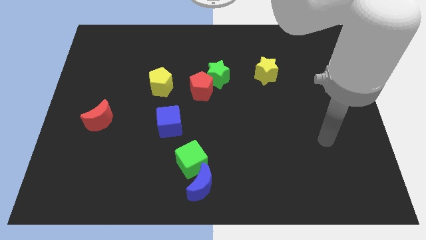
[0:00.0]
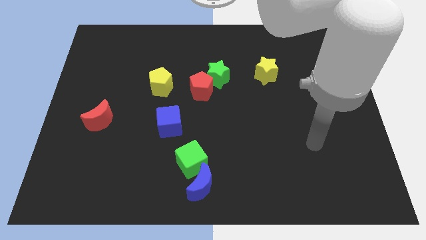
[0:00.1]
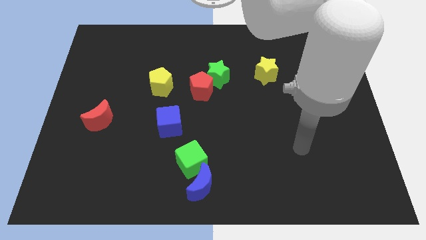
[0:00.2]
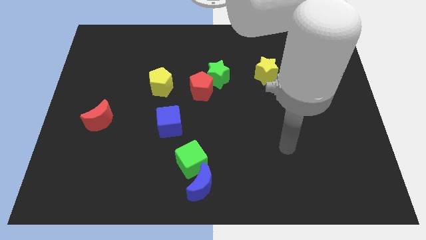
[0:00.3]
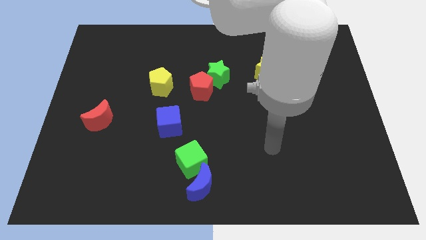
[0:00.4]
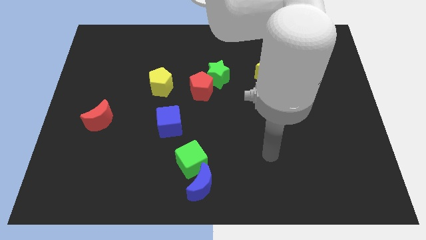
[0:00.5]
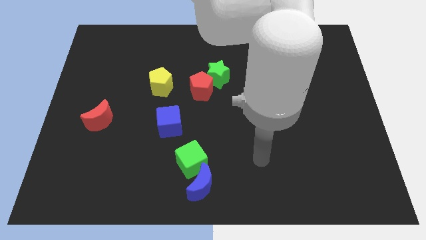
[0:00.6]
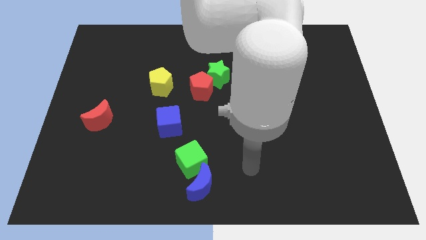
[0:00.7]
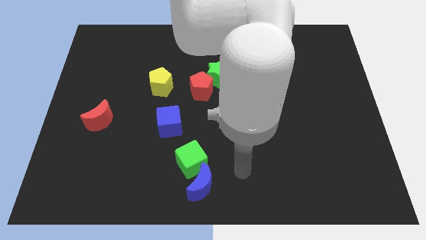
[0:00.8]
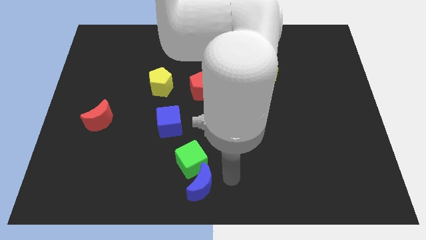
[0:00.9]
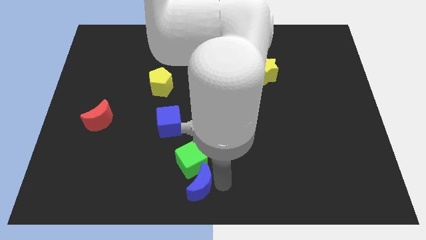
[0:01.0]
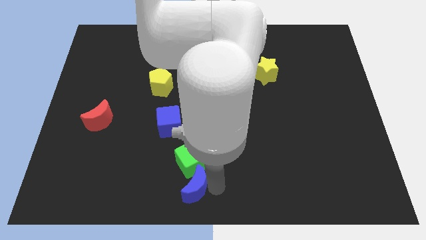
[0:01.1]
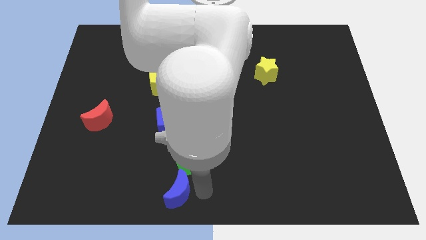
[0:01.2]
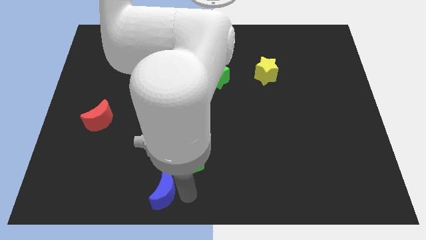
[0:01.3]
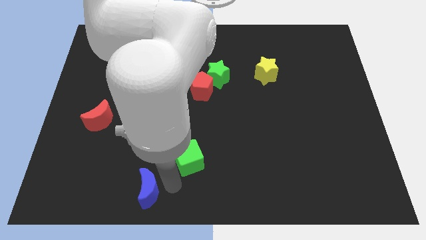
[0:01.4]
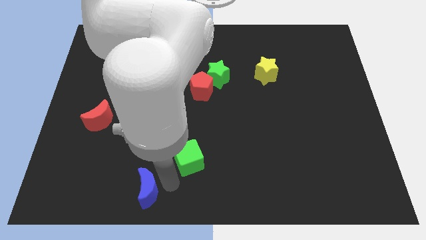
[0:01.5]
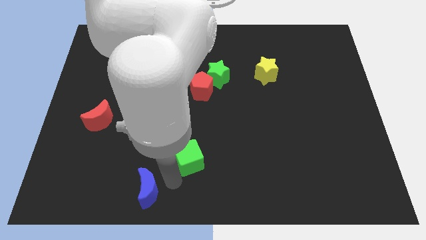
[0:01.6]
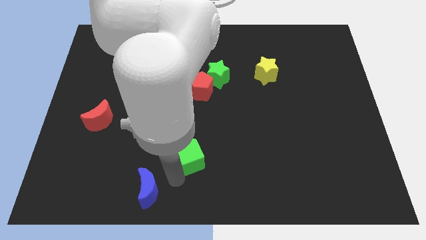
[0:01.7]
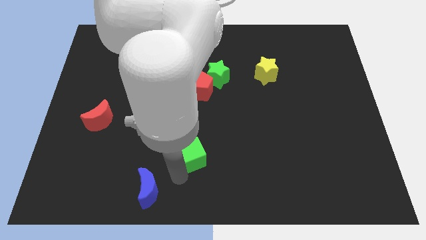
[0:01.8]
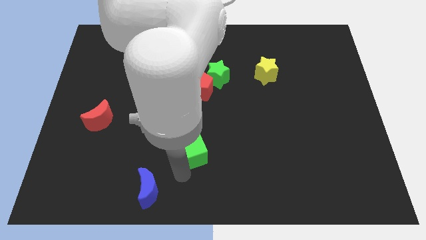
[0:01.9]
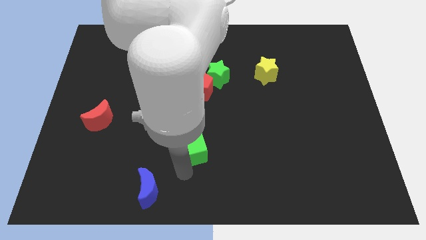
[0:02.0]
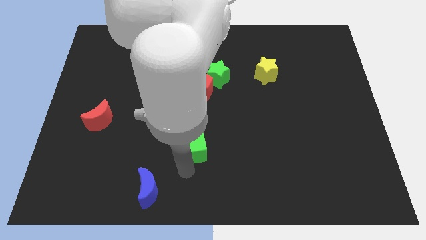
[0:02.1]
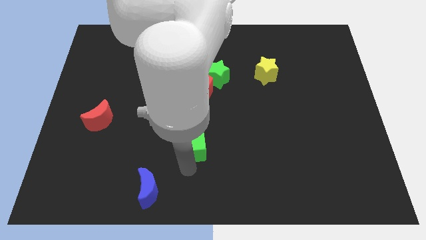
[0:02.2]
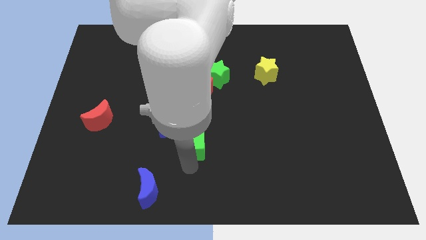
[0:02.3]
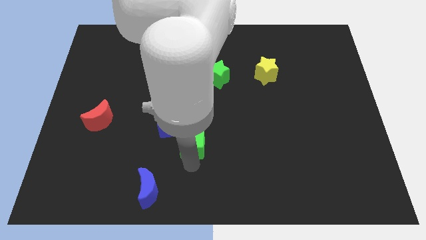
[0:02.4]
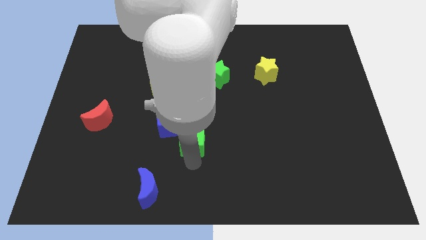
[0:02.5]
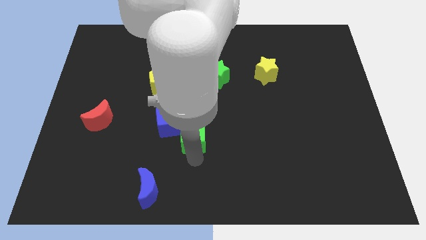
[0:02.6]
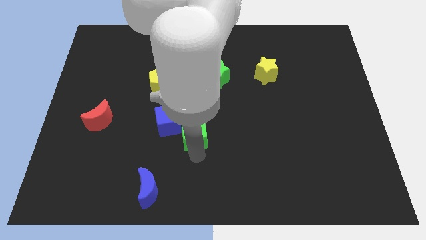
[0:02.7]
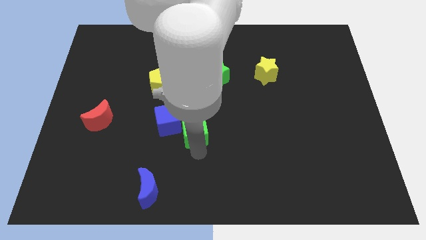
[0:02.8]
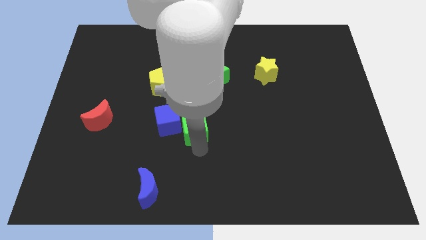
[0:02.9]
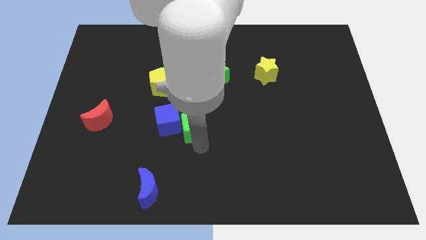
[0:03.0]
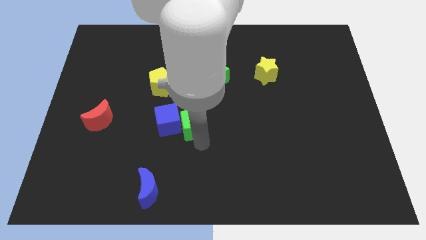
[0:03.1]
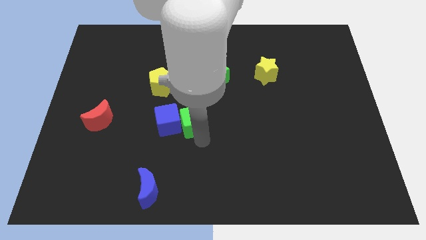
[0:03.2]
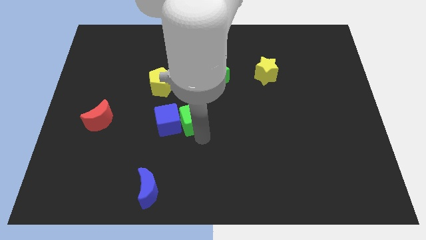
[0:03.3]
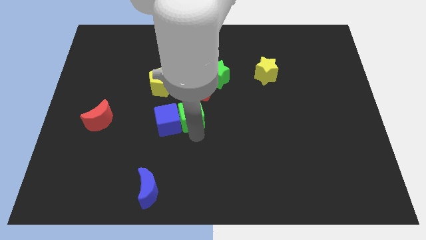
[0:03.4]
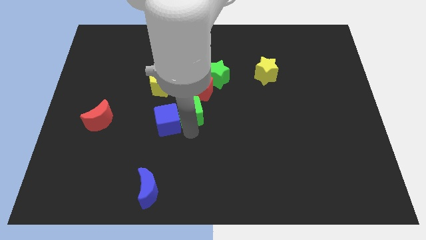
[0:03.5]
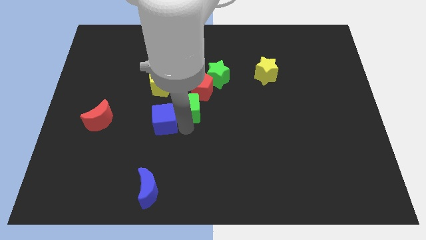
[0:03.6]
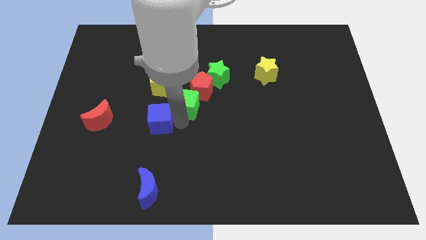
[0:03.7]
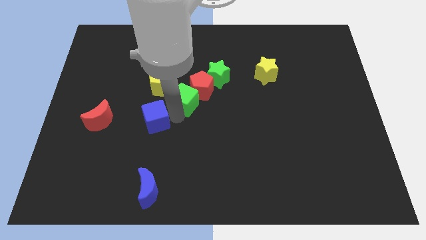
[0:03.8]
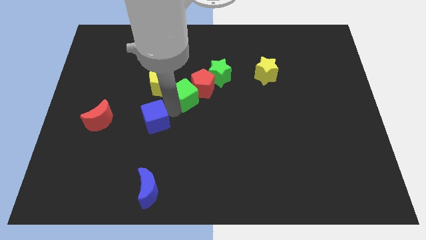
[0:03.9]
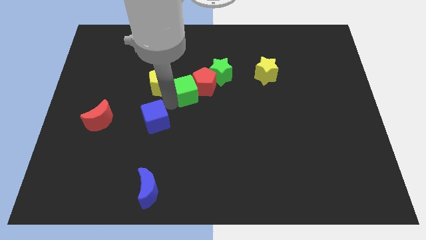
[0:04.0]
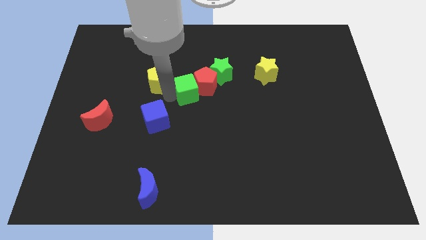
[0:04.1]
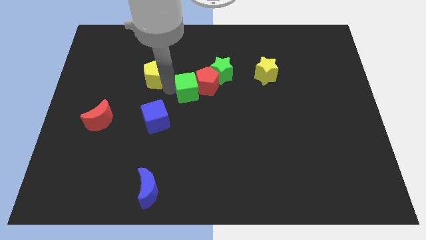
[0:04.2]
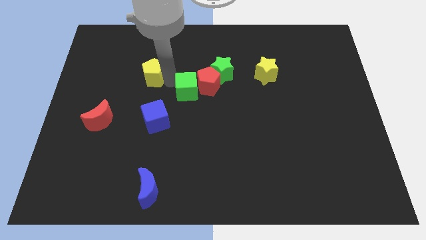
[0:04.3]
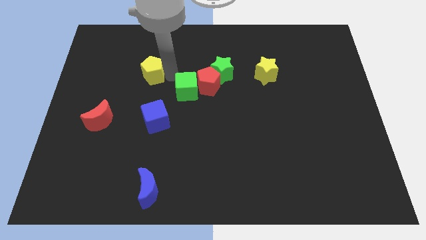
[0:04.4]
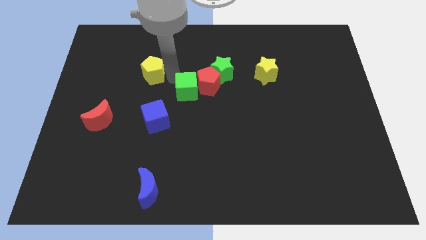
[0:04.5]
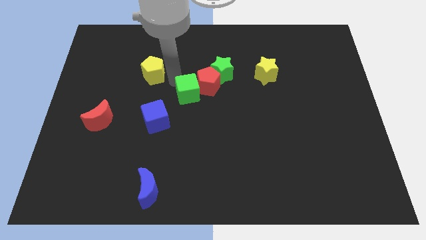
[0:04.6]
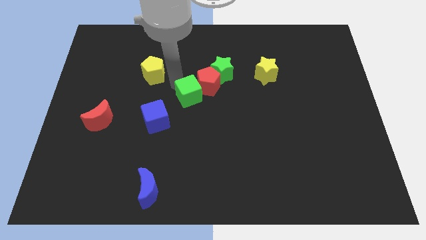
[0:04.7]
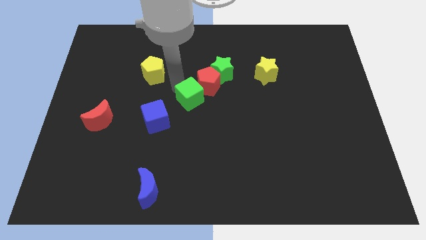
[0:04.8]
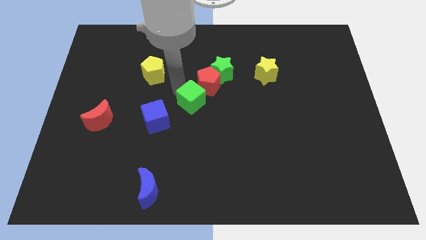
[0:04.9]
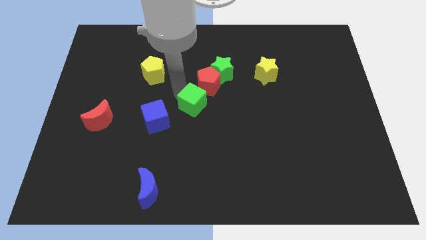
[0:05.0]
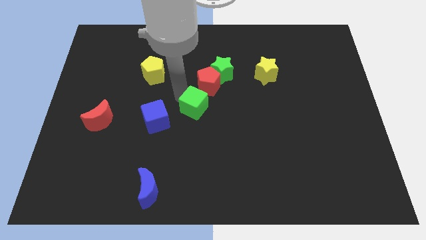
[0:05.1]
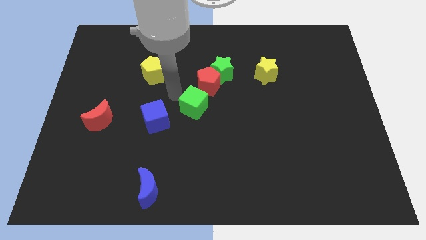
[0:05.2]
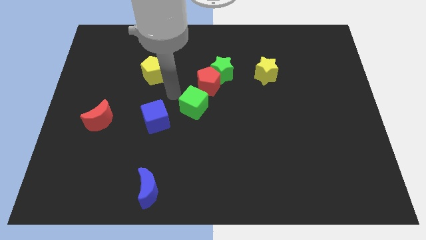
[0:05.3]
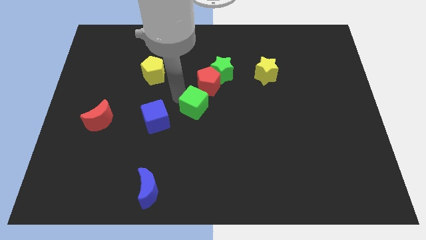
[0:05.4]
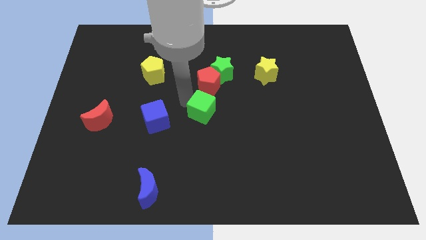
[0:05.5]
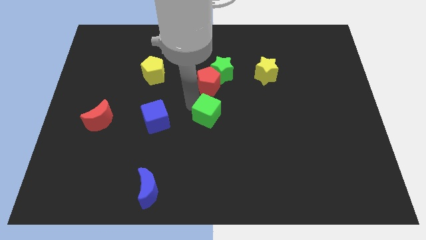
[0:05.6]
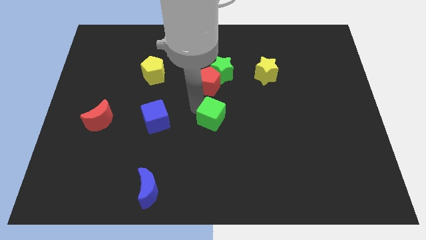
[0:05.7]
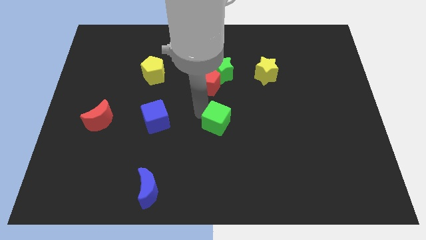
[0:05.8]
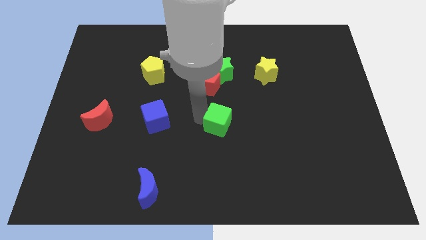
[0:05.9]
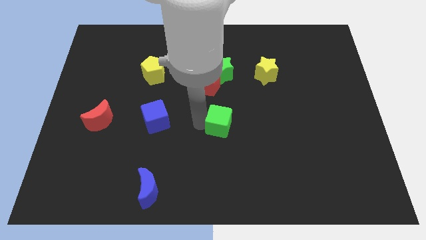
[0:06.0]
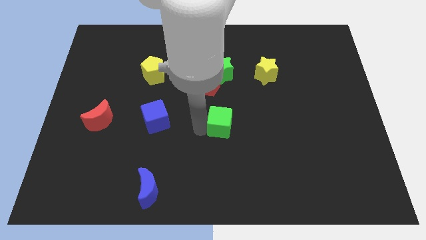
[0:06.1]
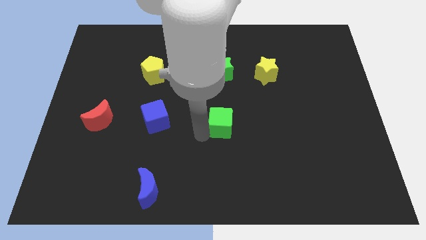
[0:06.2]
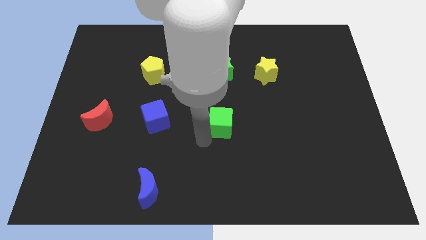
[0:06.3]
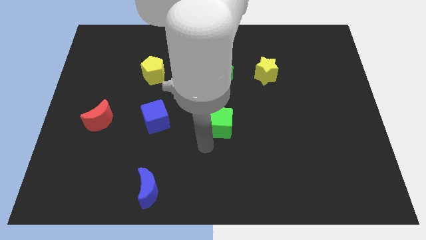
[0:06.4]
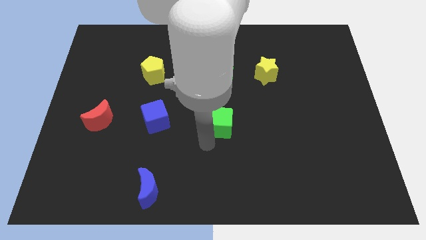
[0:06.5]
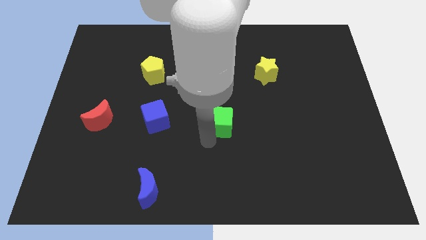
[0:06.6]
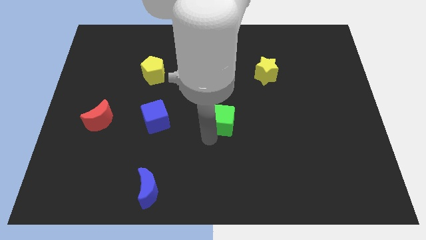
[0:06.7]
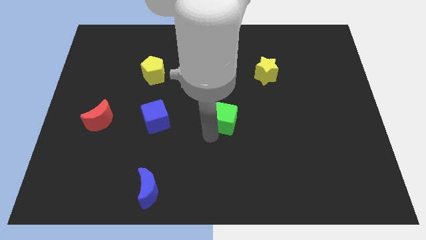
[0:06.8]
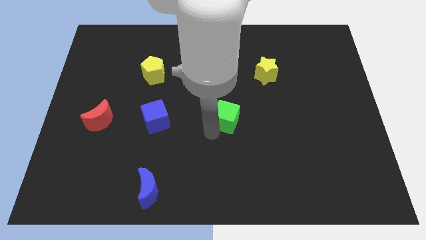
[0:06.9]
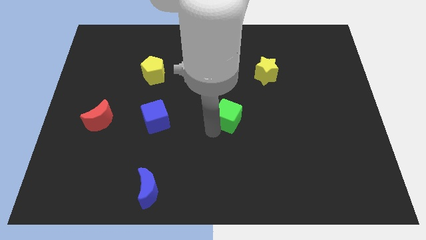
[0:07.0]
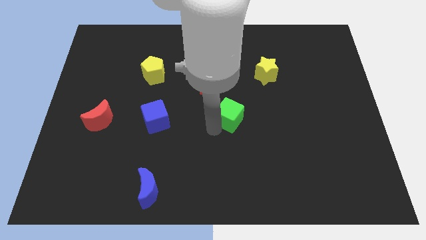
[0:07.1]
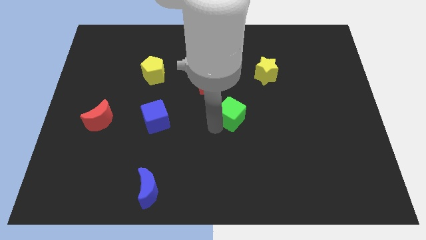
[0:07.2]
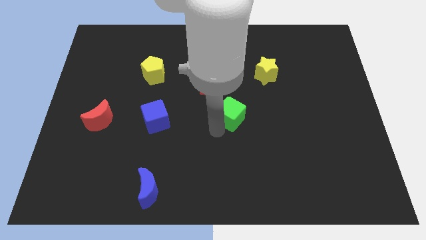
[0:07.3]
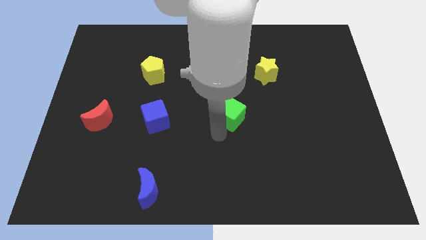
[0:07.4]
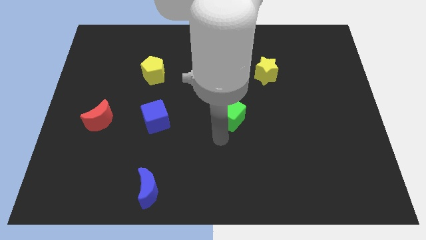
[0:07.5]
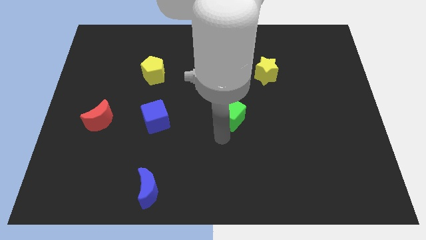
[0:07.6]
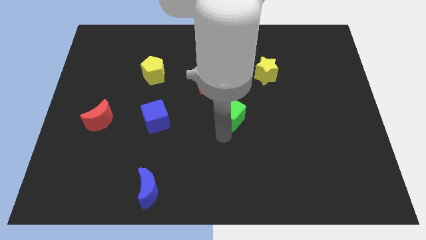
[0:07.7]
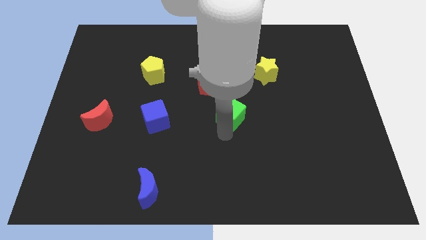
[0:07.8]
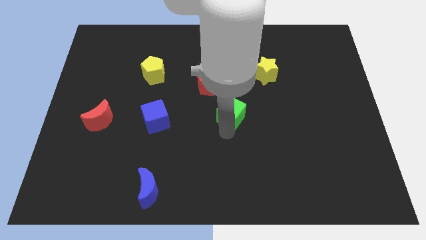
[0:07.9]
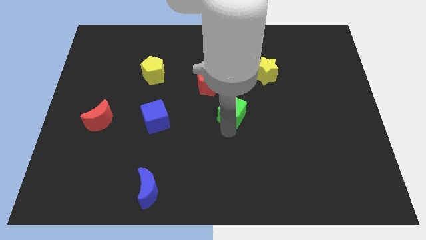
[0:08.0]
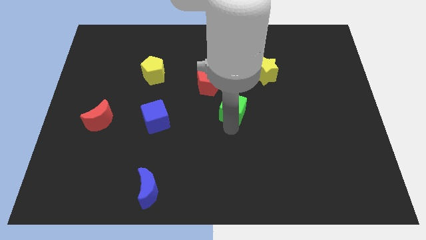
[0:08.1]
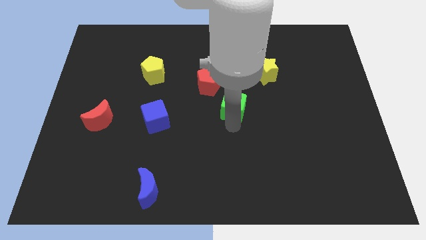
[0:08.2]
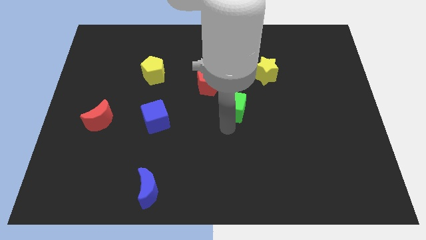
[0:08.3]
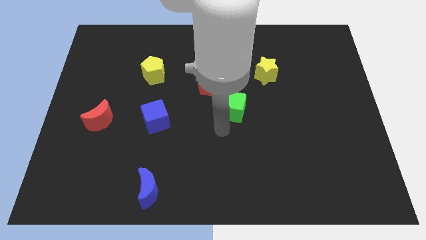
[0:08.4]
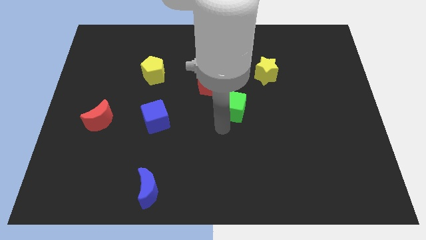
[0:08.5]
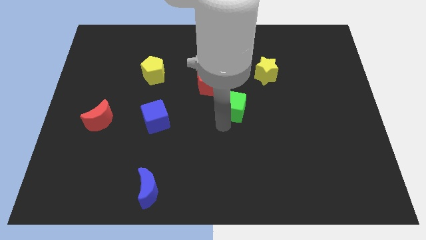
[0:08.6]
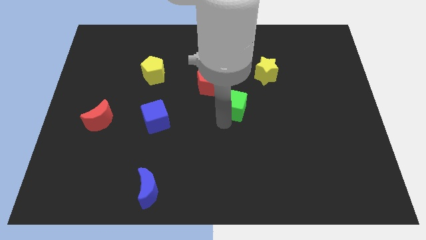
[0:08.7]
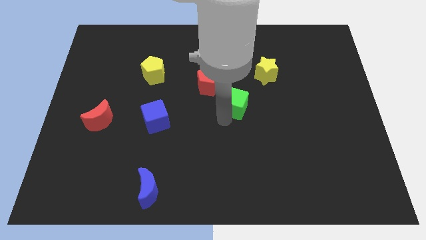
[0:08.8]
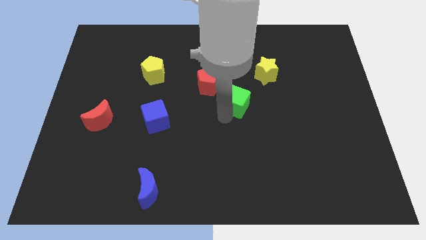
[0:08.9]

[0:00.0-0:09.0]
move the green cube diagonally down and to the left of the yellow star
